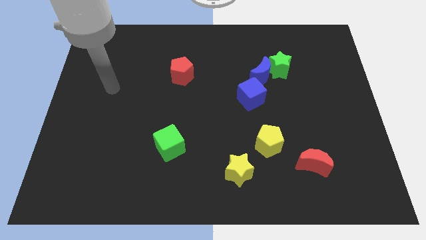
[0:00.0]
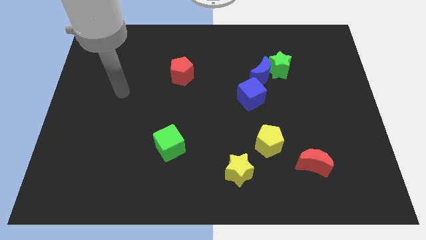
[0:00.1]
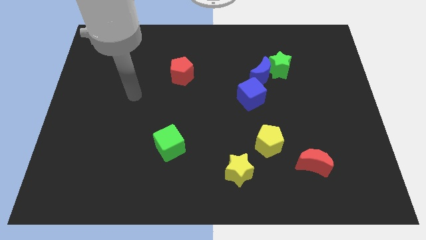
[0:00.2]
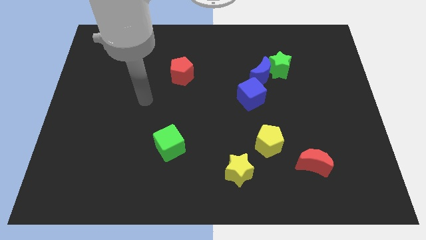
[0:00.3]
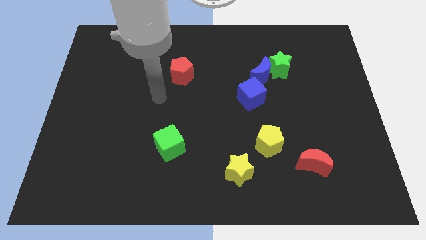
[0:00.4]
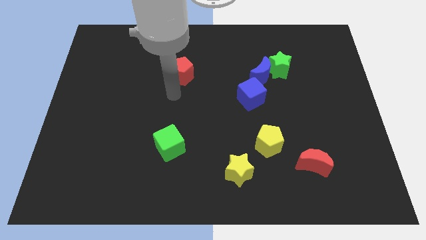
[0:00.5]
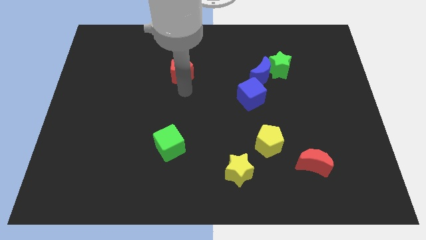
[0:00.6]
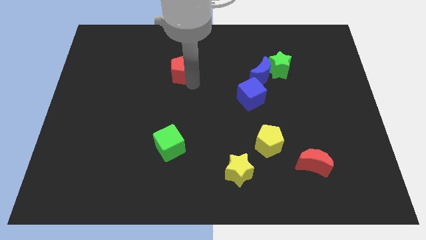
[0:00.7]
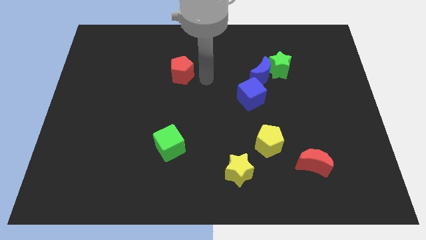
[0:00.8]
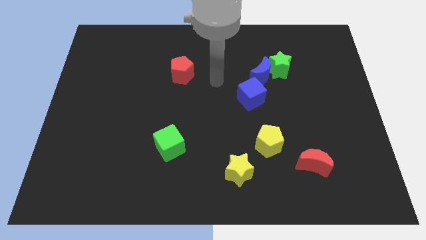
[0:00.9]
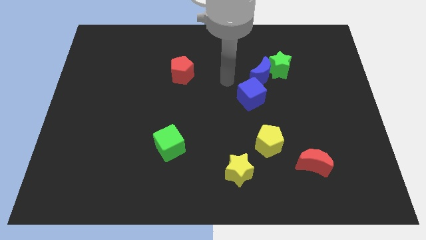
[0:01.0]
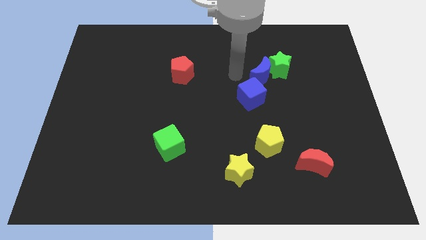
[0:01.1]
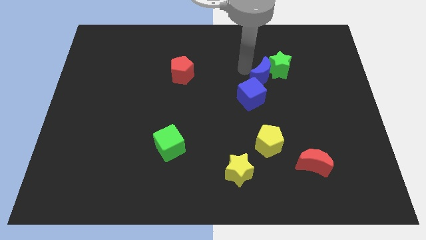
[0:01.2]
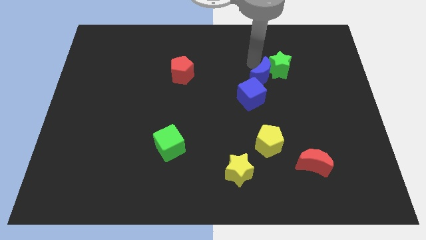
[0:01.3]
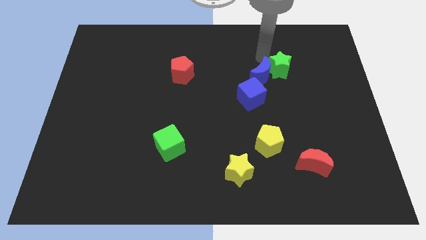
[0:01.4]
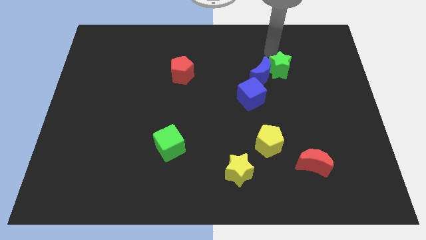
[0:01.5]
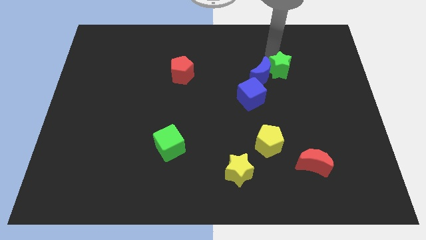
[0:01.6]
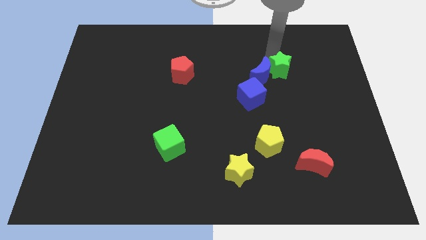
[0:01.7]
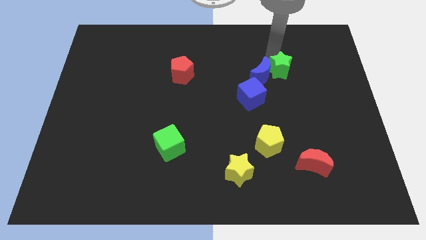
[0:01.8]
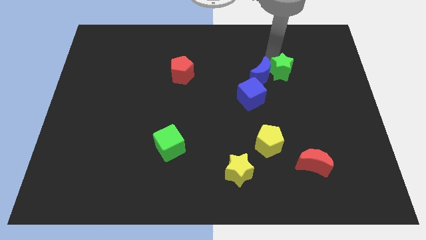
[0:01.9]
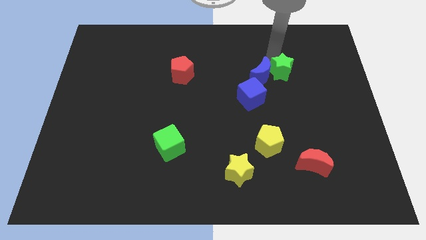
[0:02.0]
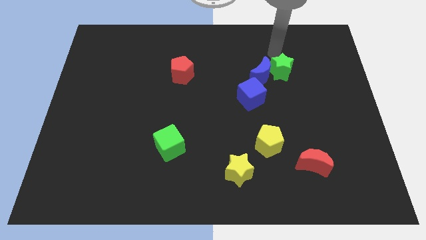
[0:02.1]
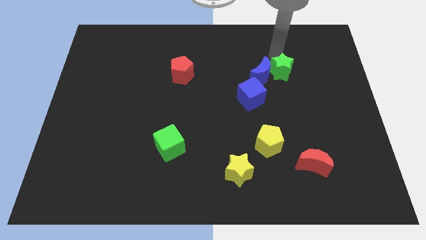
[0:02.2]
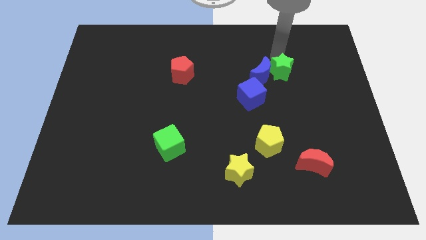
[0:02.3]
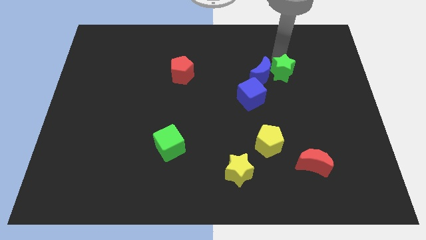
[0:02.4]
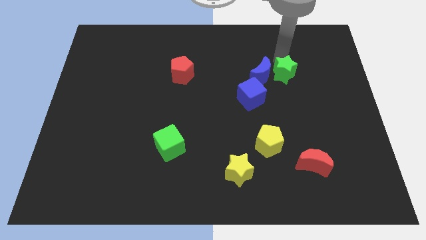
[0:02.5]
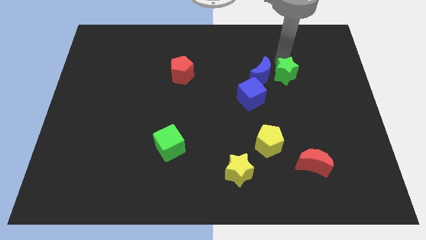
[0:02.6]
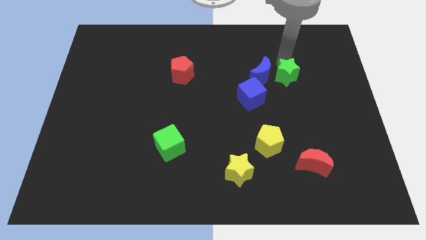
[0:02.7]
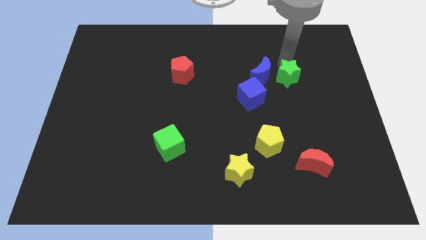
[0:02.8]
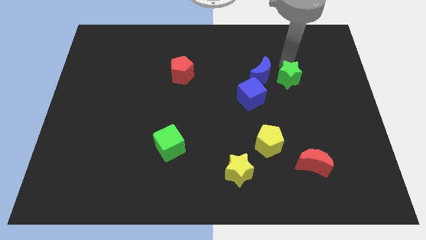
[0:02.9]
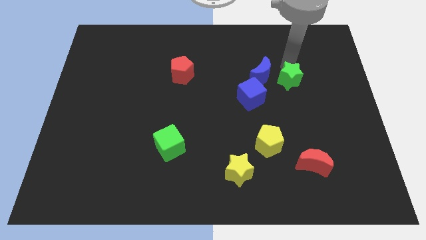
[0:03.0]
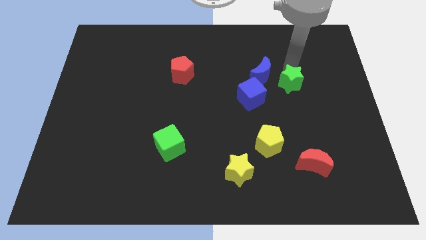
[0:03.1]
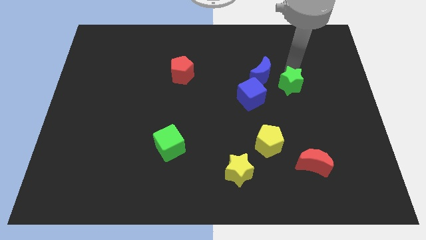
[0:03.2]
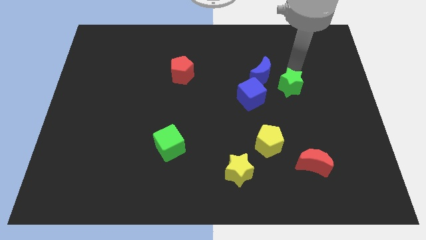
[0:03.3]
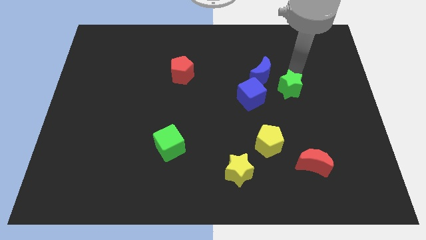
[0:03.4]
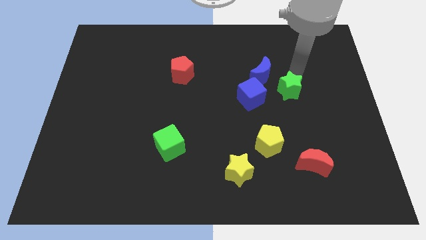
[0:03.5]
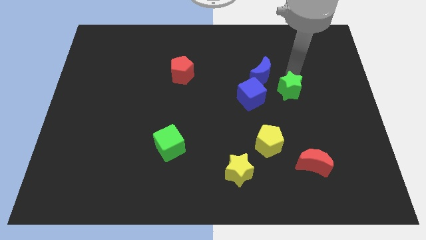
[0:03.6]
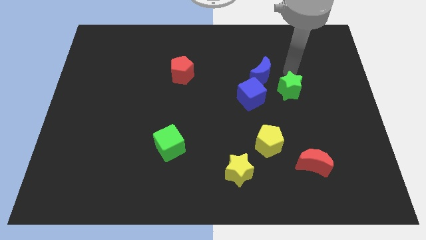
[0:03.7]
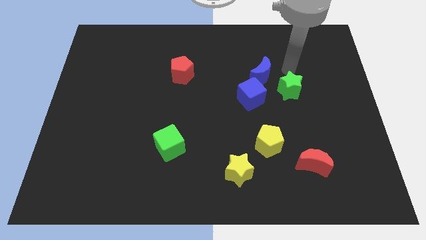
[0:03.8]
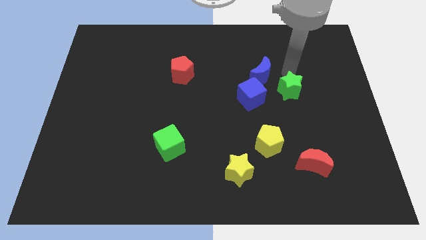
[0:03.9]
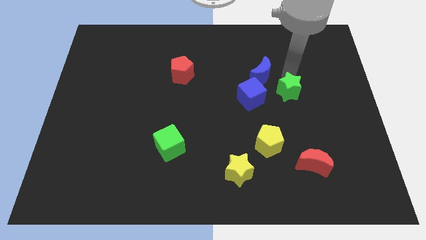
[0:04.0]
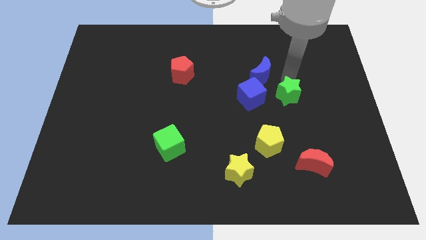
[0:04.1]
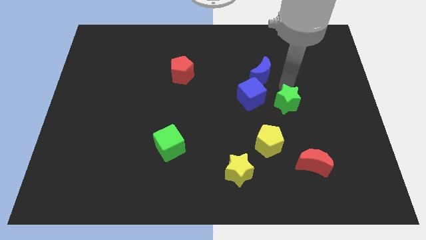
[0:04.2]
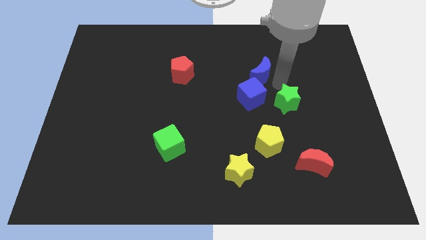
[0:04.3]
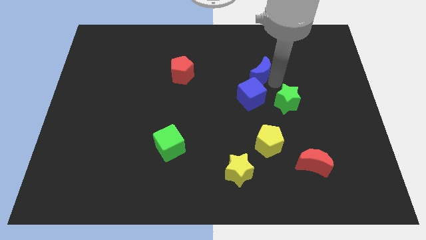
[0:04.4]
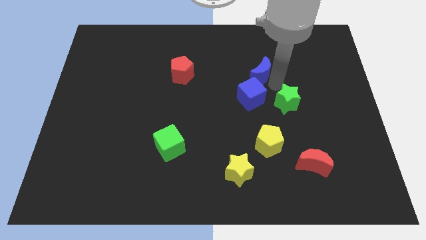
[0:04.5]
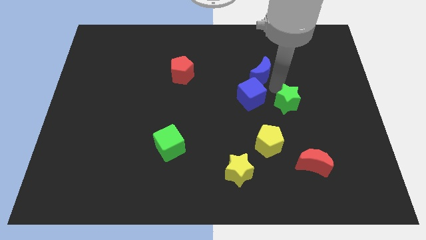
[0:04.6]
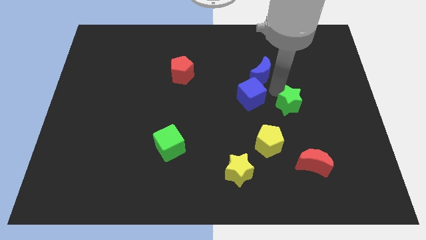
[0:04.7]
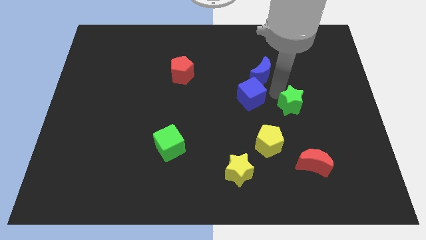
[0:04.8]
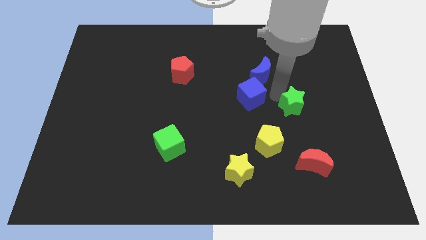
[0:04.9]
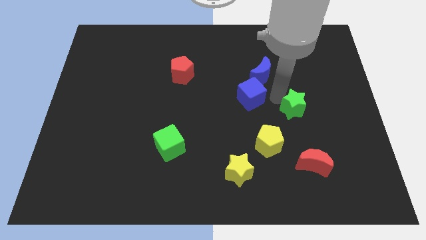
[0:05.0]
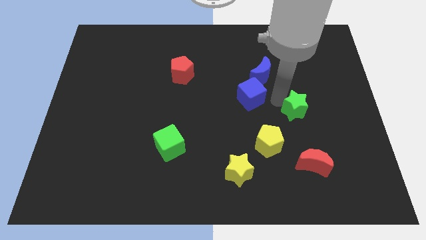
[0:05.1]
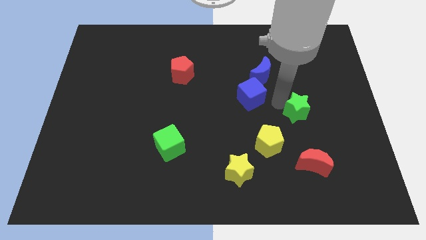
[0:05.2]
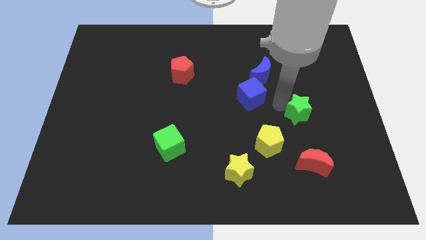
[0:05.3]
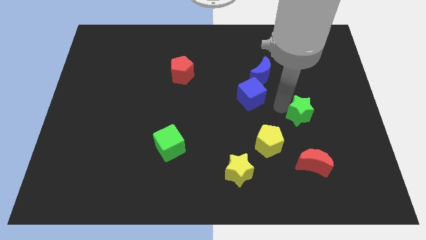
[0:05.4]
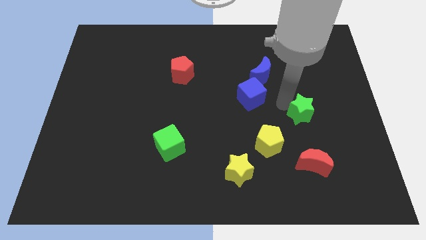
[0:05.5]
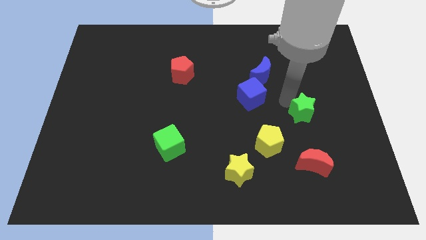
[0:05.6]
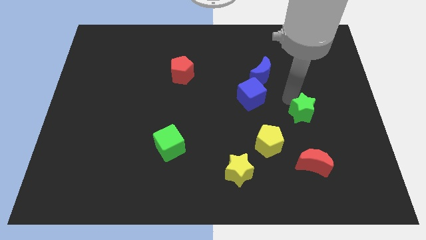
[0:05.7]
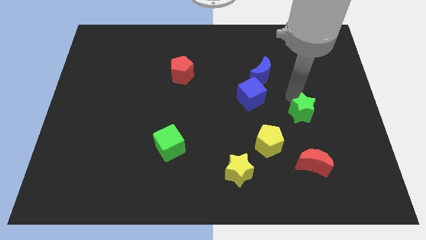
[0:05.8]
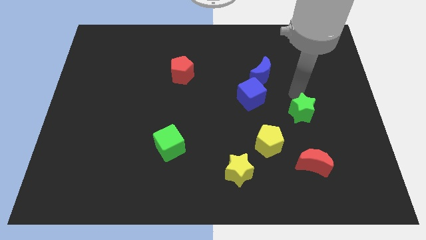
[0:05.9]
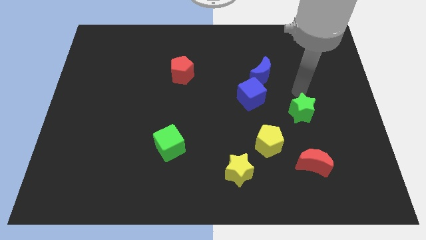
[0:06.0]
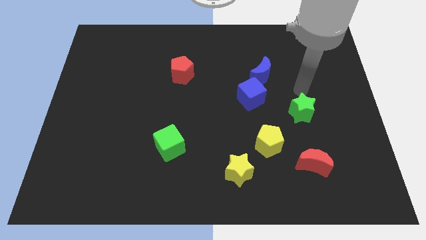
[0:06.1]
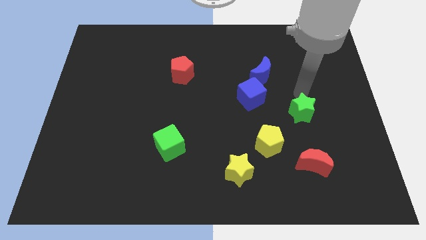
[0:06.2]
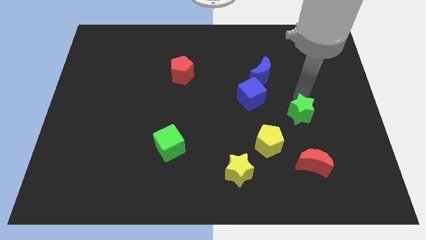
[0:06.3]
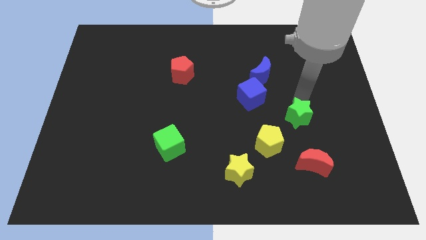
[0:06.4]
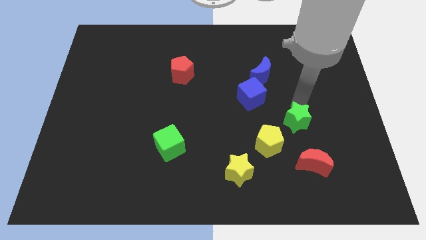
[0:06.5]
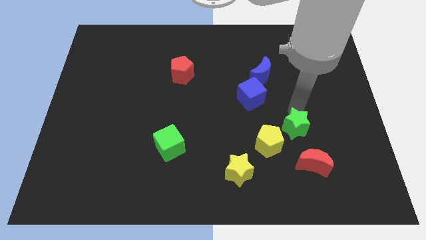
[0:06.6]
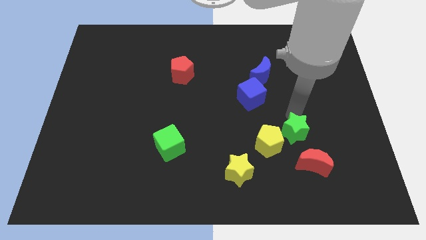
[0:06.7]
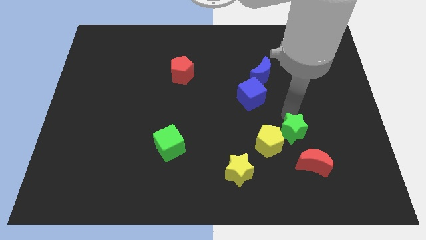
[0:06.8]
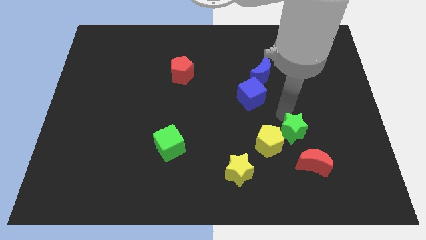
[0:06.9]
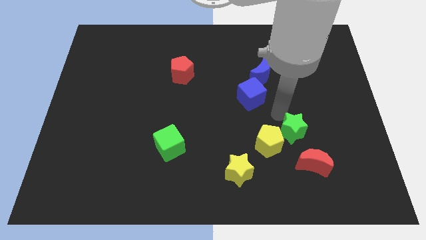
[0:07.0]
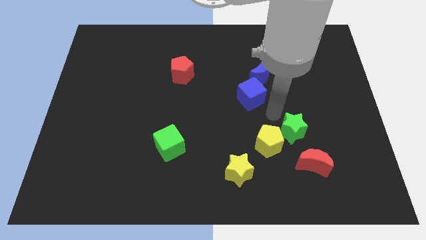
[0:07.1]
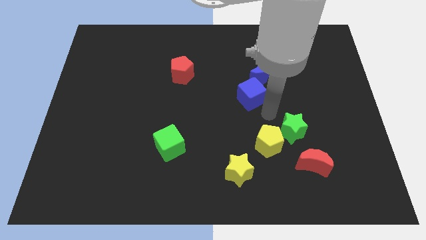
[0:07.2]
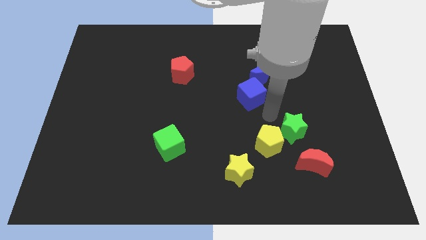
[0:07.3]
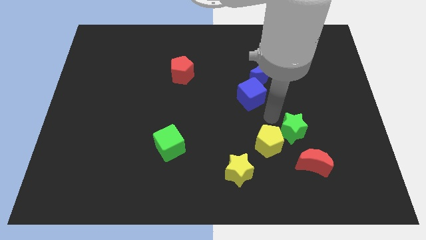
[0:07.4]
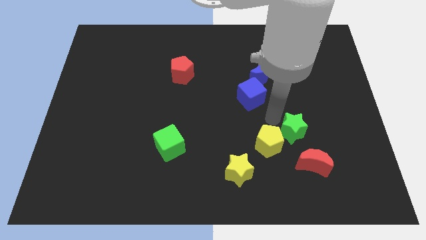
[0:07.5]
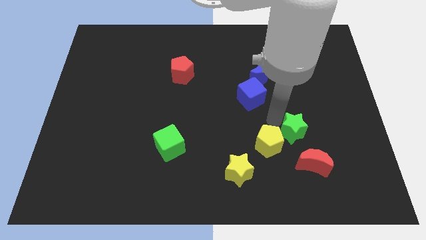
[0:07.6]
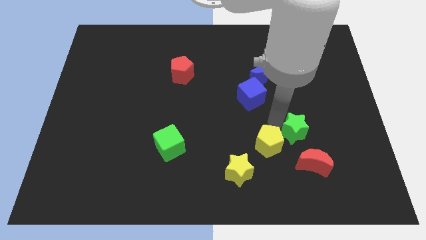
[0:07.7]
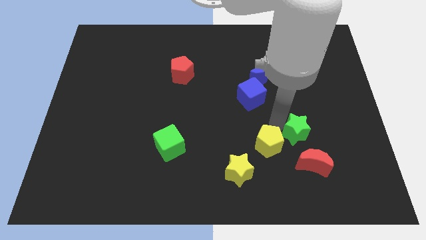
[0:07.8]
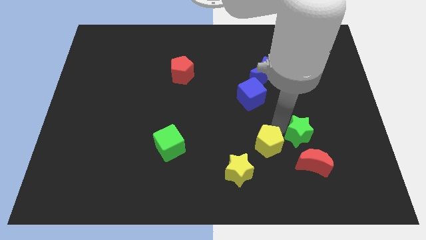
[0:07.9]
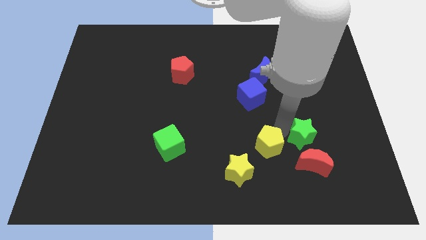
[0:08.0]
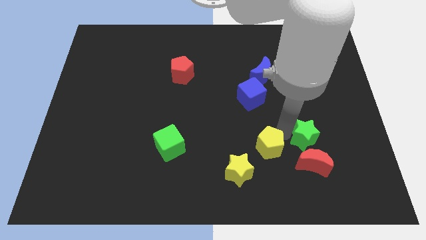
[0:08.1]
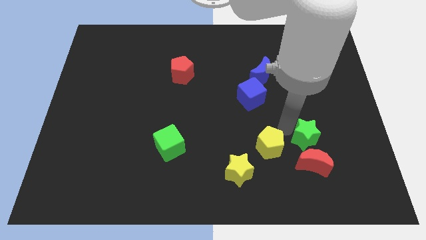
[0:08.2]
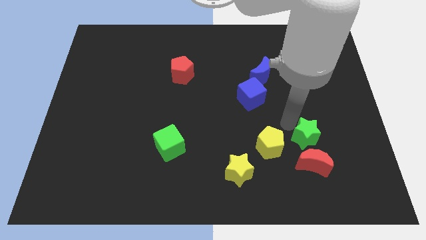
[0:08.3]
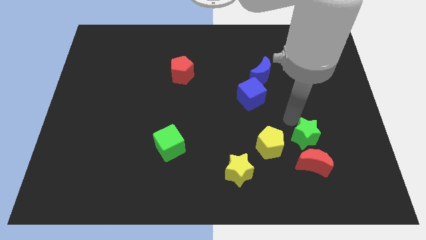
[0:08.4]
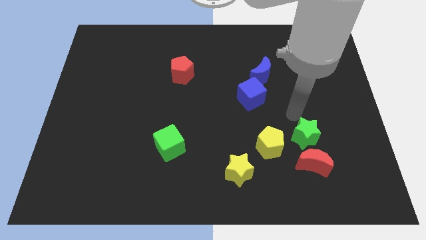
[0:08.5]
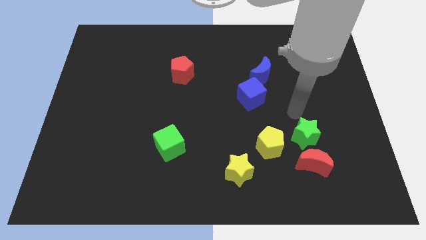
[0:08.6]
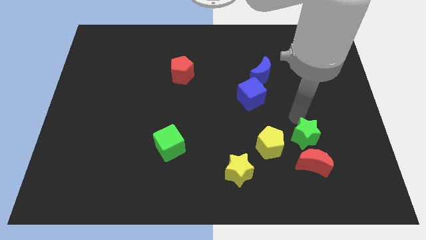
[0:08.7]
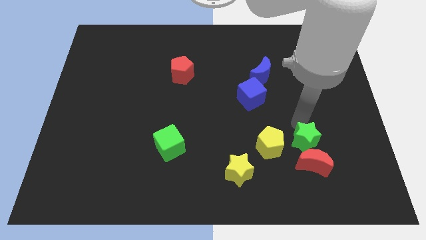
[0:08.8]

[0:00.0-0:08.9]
push the green star close to the red moon
